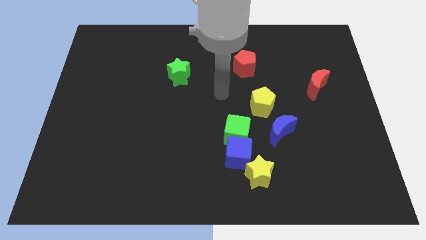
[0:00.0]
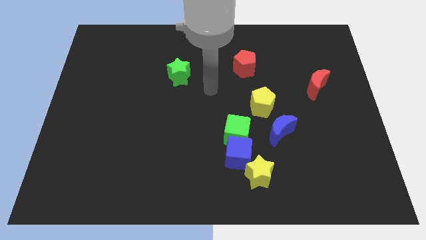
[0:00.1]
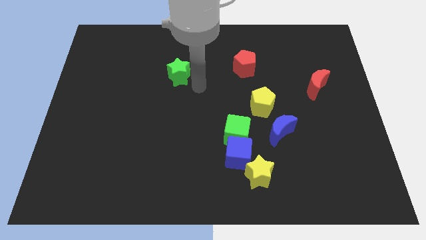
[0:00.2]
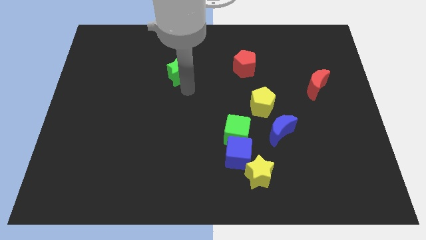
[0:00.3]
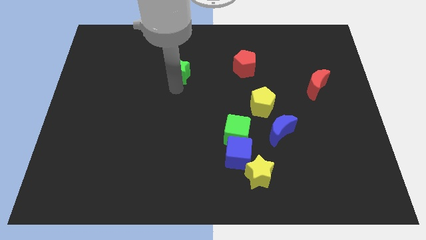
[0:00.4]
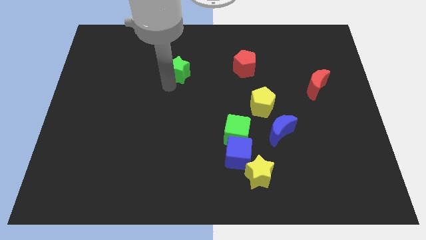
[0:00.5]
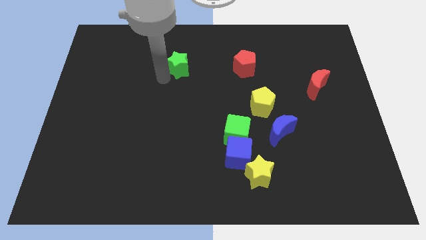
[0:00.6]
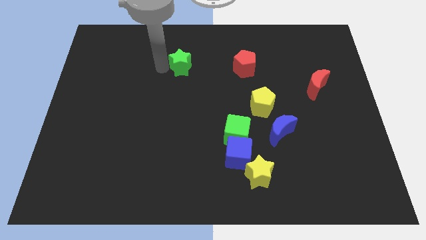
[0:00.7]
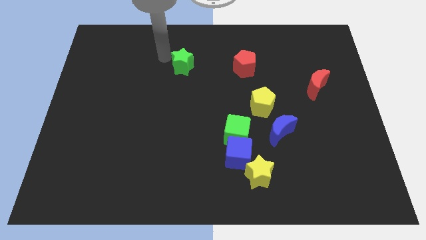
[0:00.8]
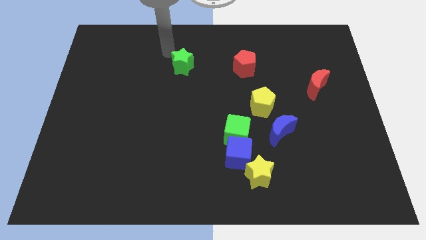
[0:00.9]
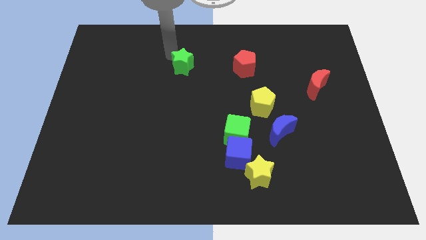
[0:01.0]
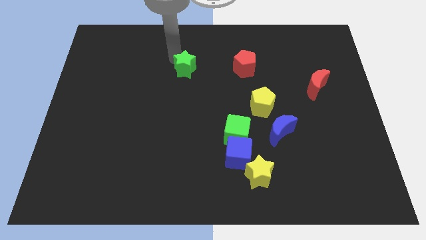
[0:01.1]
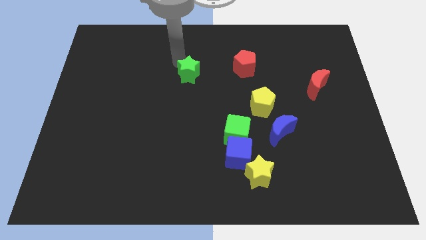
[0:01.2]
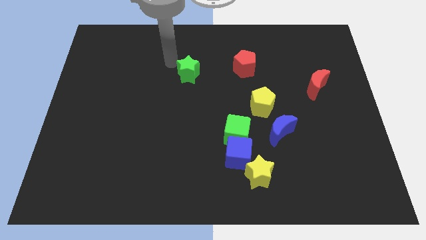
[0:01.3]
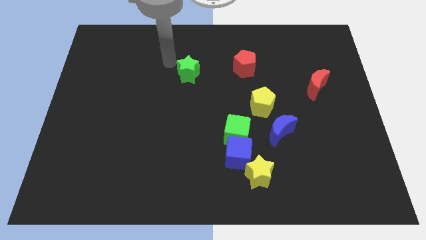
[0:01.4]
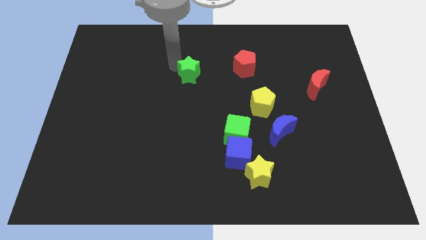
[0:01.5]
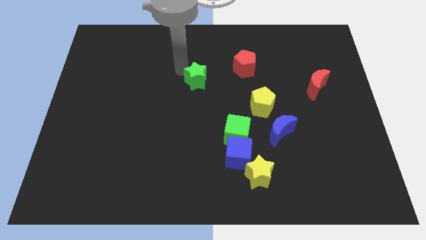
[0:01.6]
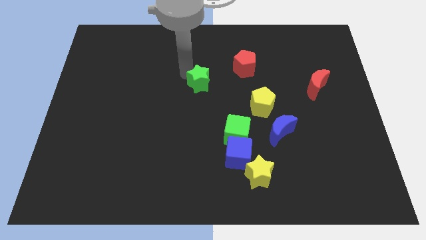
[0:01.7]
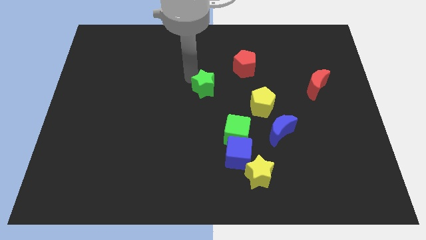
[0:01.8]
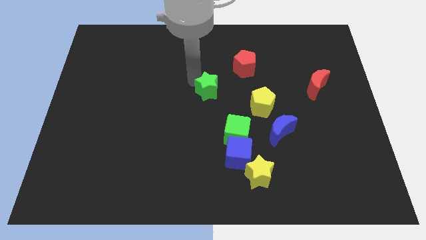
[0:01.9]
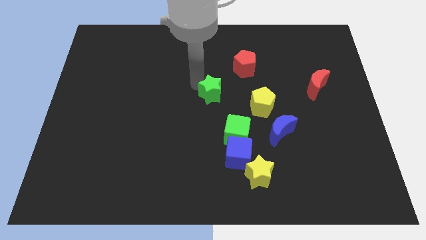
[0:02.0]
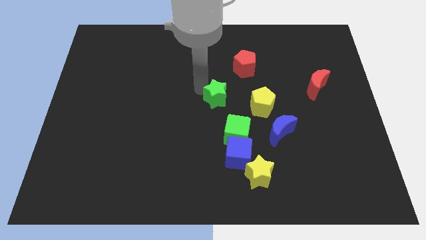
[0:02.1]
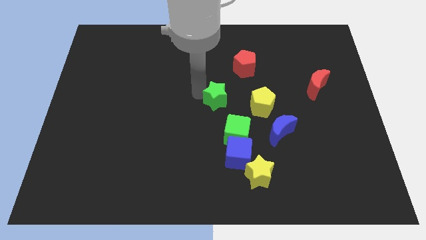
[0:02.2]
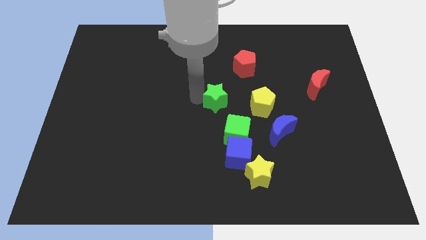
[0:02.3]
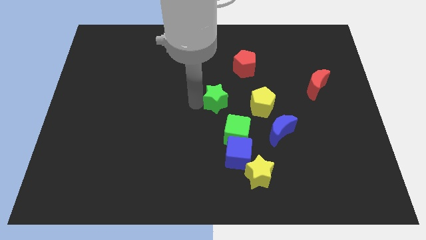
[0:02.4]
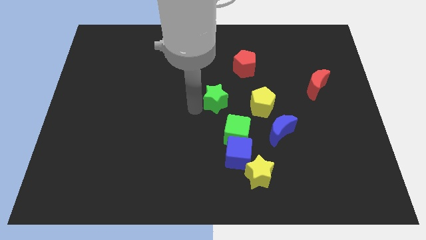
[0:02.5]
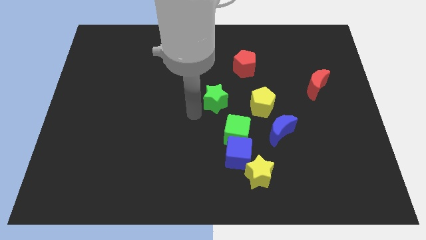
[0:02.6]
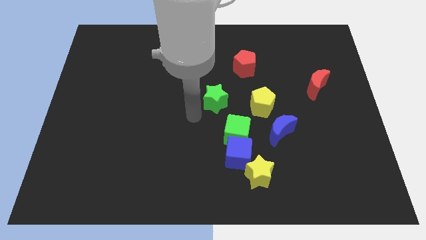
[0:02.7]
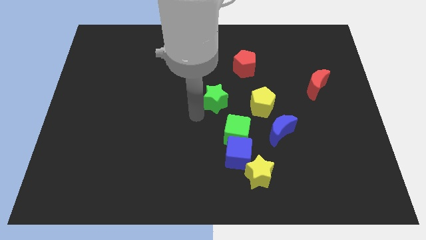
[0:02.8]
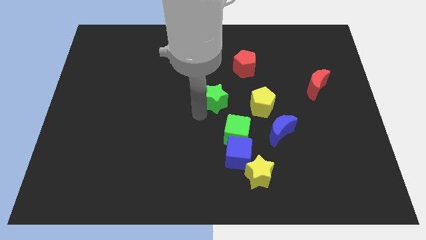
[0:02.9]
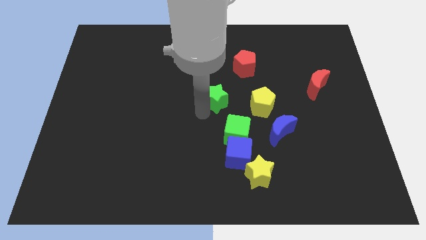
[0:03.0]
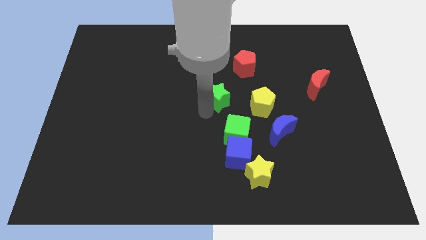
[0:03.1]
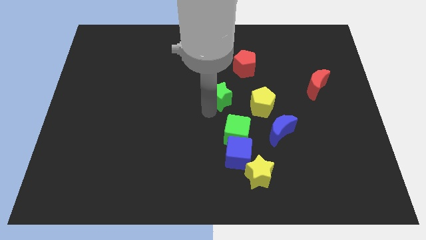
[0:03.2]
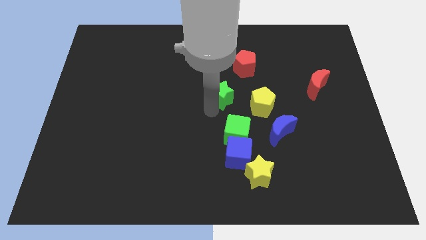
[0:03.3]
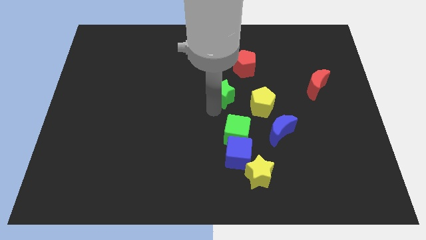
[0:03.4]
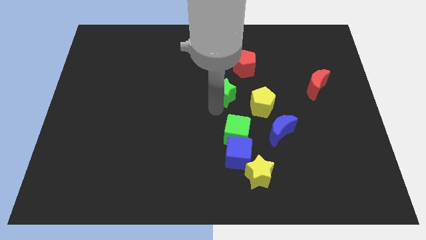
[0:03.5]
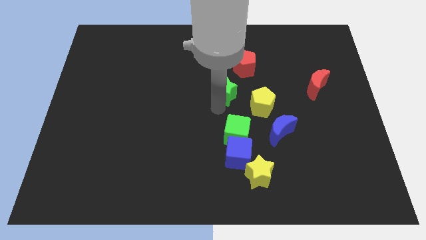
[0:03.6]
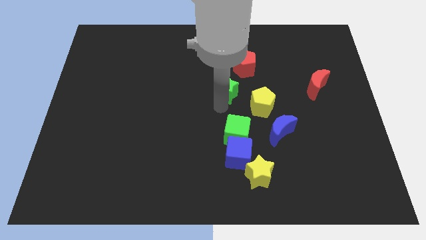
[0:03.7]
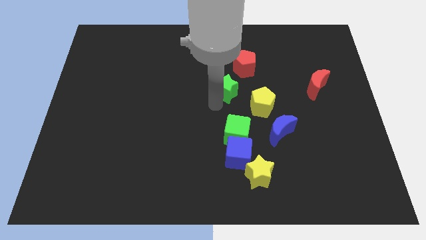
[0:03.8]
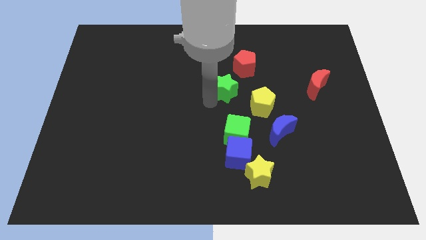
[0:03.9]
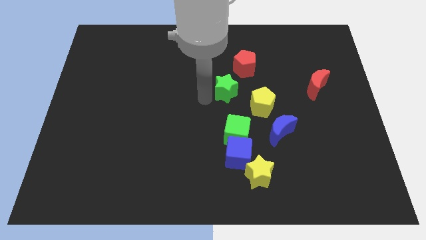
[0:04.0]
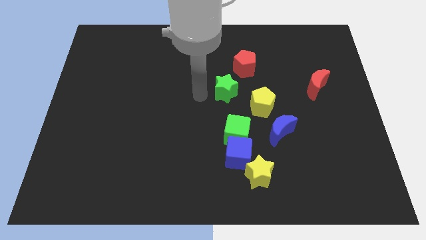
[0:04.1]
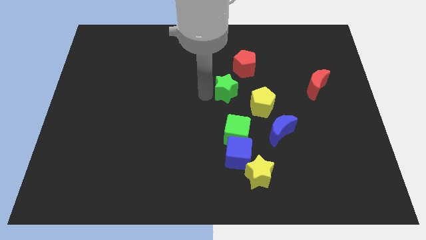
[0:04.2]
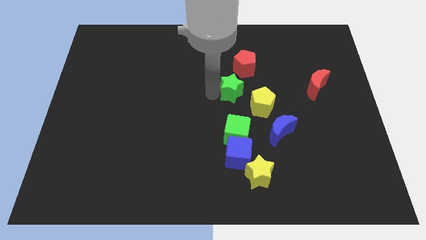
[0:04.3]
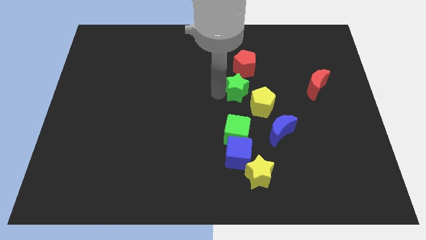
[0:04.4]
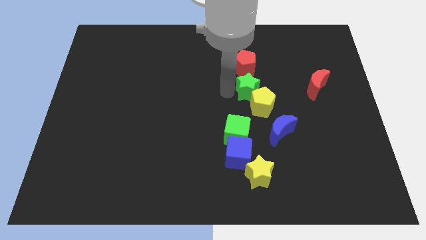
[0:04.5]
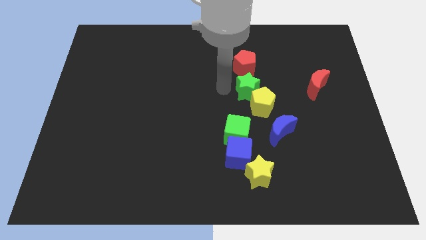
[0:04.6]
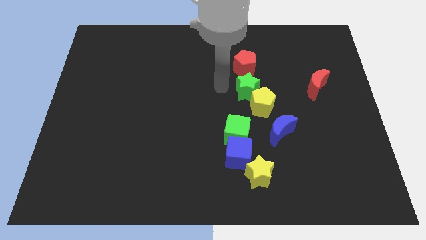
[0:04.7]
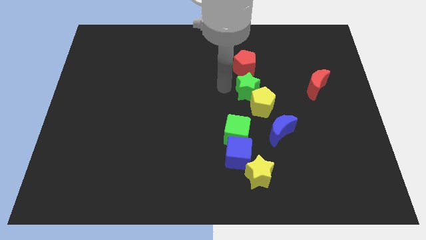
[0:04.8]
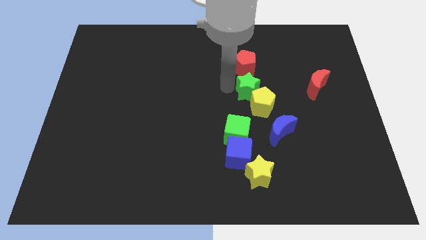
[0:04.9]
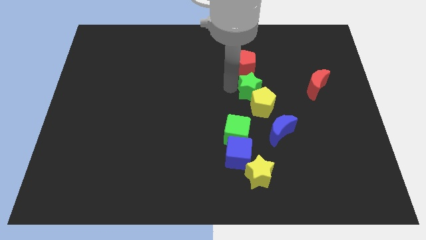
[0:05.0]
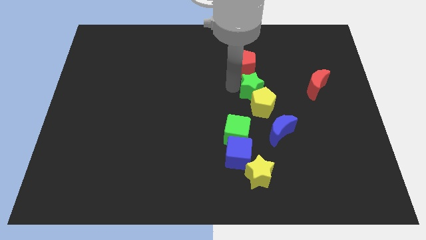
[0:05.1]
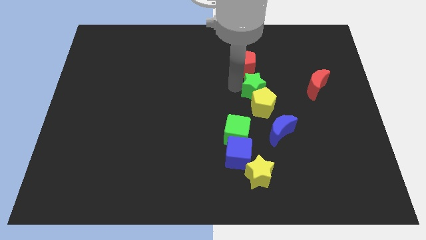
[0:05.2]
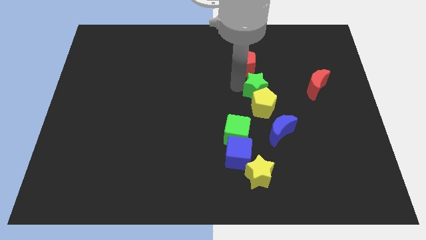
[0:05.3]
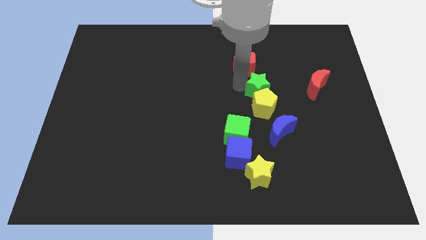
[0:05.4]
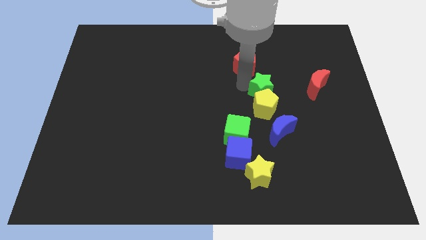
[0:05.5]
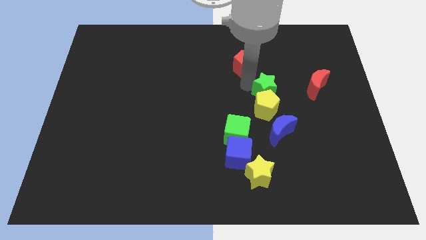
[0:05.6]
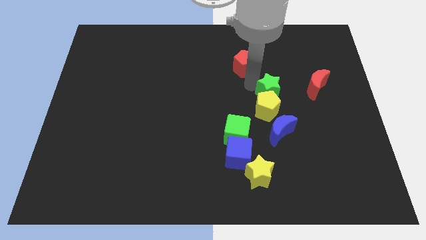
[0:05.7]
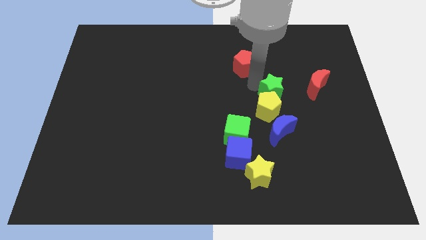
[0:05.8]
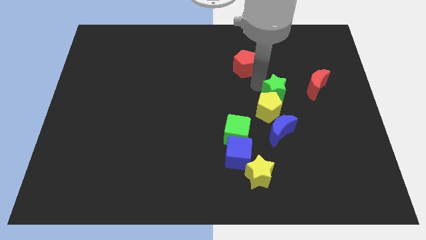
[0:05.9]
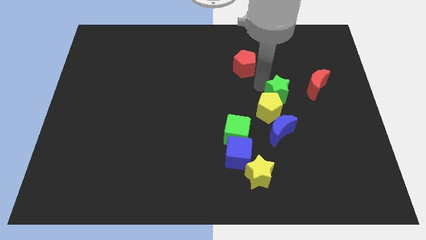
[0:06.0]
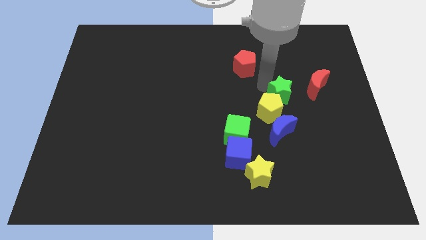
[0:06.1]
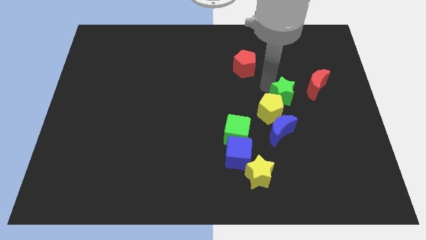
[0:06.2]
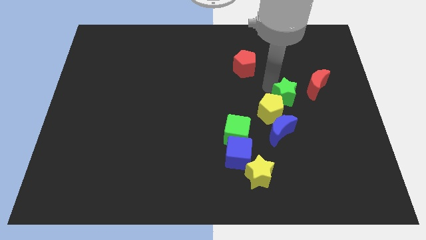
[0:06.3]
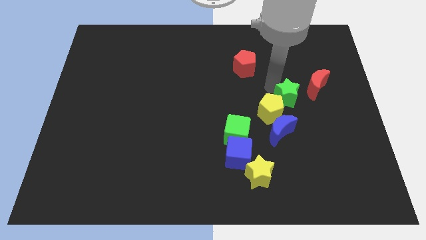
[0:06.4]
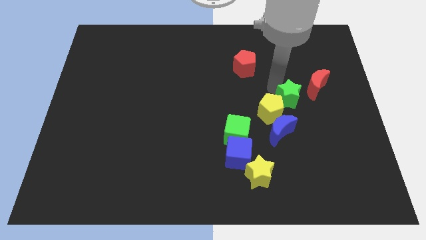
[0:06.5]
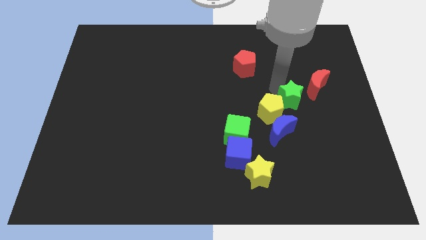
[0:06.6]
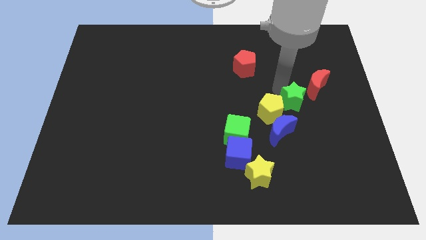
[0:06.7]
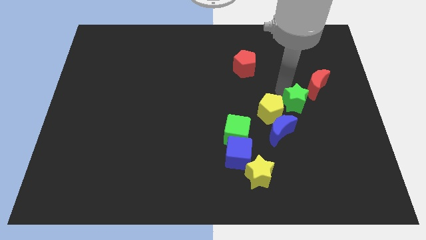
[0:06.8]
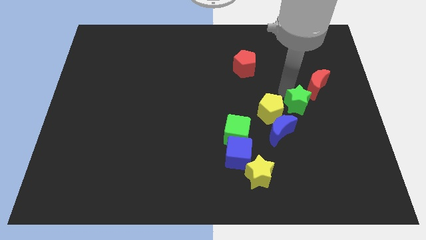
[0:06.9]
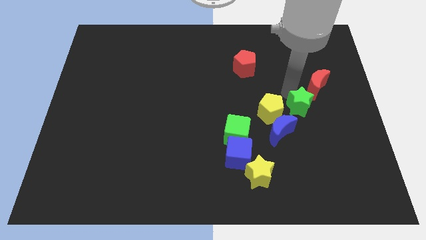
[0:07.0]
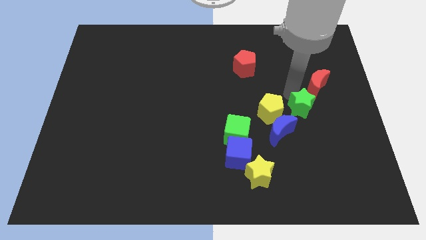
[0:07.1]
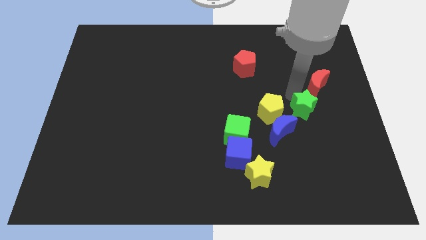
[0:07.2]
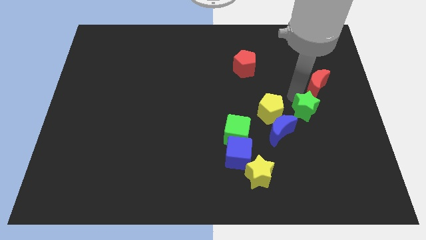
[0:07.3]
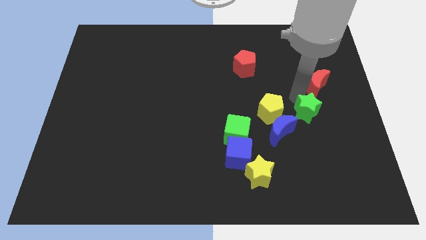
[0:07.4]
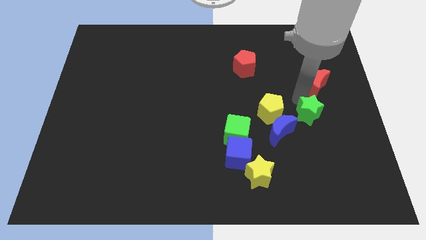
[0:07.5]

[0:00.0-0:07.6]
push the green star to the right side of the blue moon
